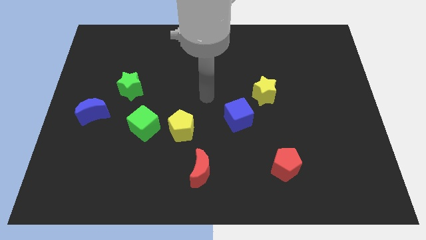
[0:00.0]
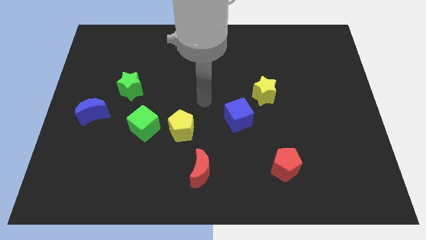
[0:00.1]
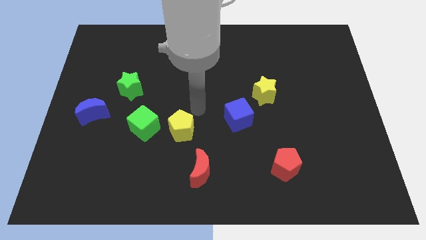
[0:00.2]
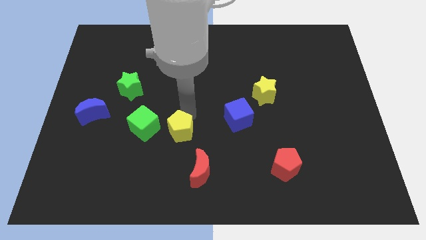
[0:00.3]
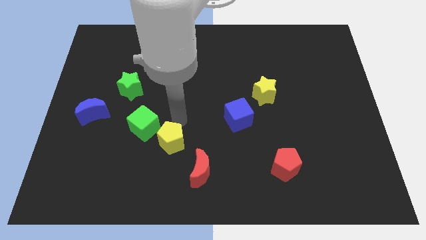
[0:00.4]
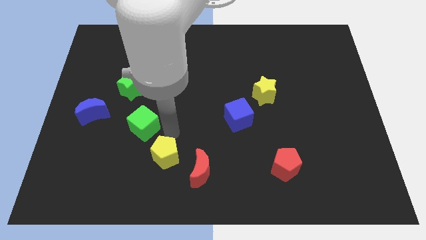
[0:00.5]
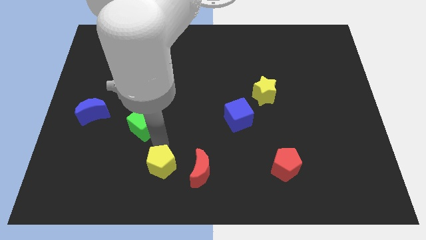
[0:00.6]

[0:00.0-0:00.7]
separate the green cube from the yellow pentagon

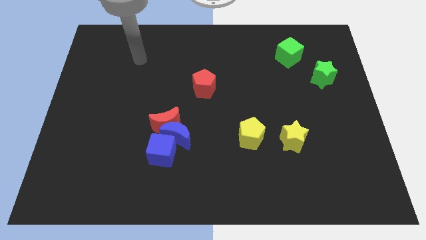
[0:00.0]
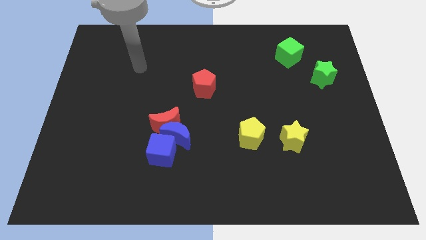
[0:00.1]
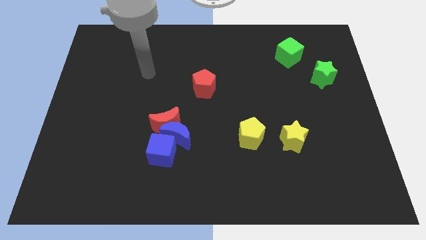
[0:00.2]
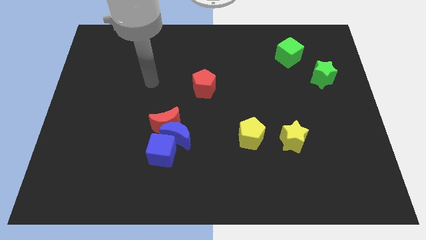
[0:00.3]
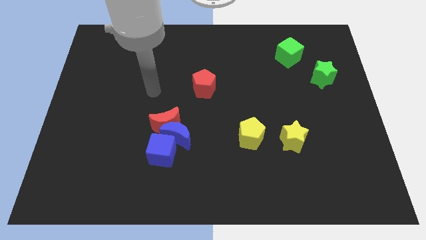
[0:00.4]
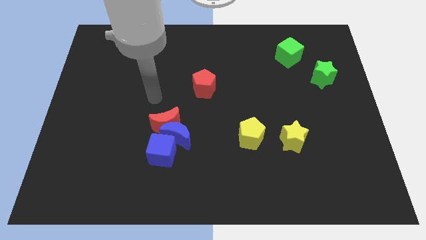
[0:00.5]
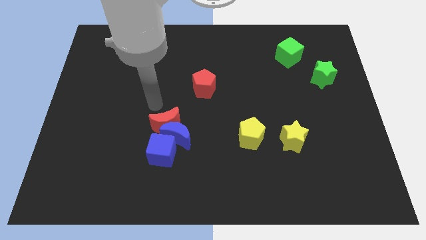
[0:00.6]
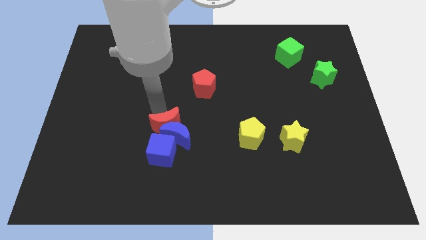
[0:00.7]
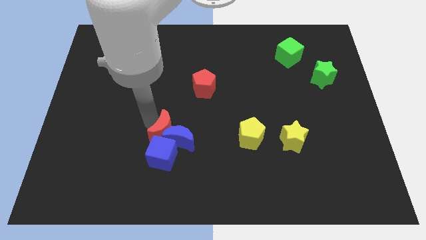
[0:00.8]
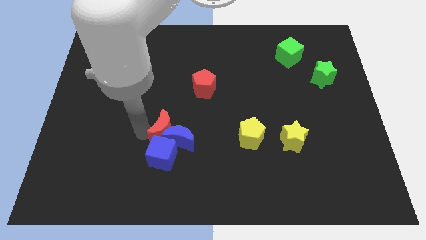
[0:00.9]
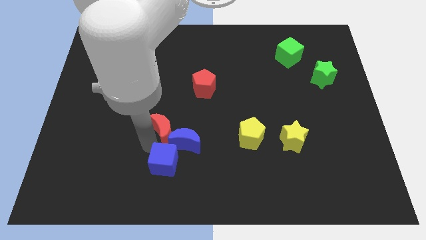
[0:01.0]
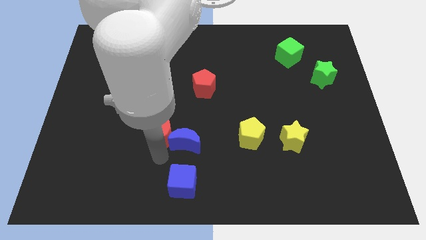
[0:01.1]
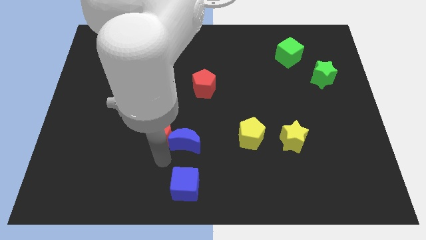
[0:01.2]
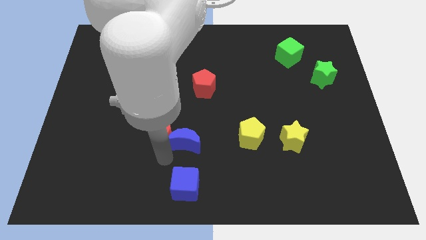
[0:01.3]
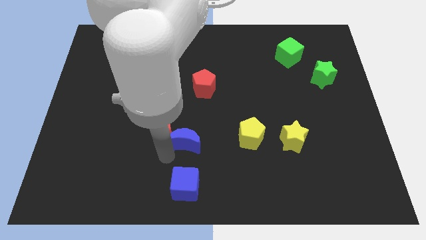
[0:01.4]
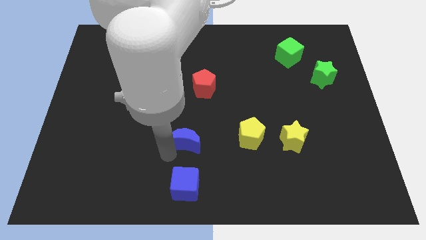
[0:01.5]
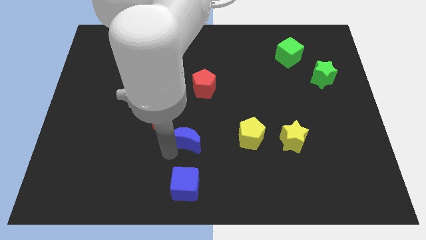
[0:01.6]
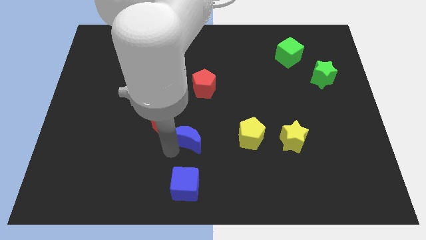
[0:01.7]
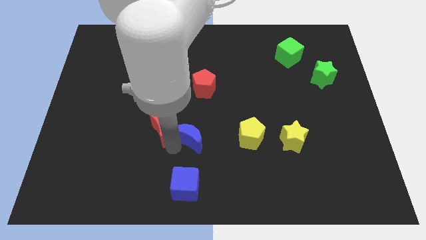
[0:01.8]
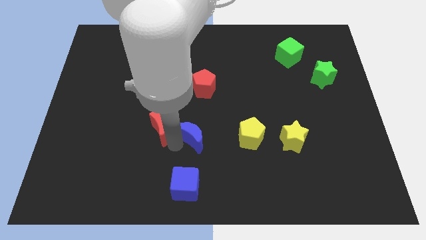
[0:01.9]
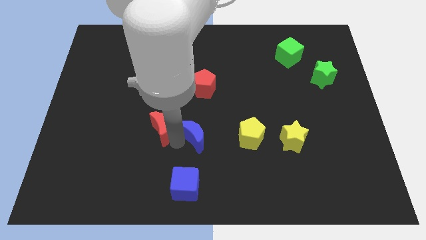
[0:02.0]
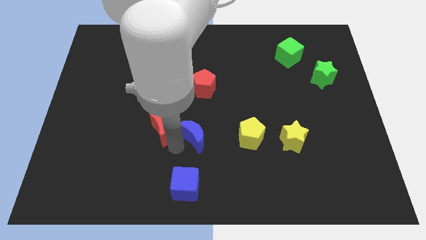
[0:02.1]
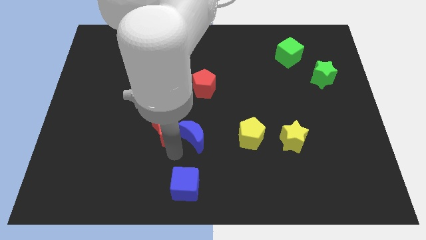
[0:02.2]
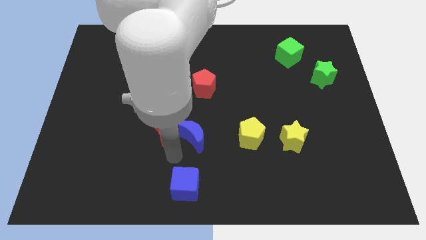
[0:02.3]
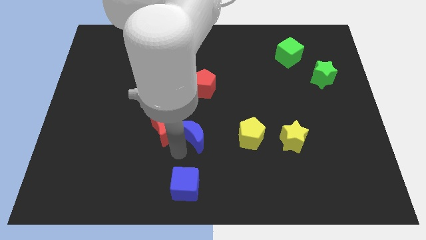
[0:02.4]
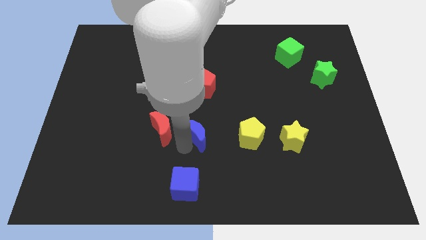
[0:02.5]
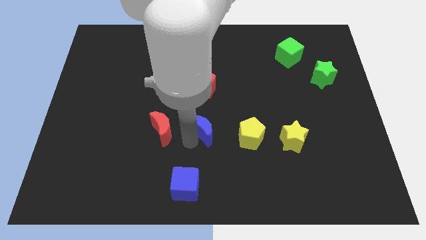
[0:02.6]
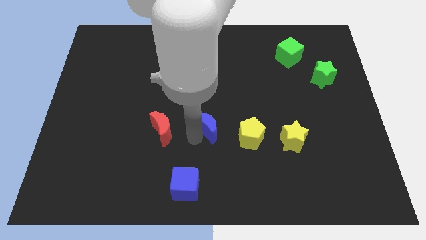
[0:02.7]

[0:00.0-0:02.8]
pull the blue moon apart from the red moon and blue cube

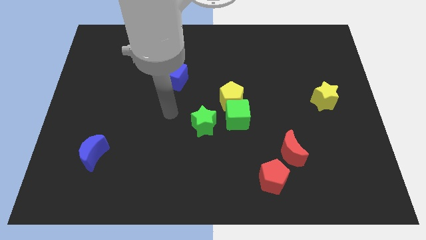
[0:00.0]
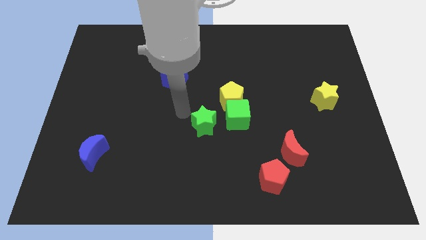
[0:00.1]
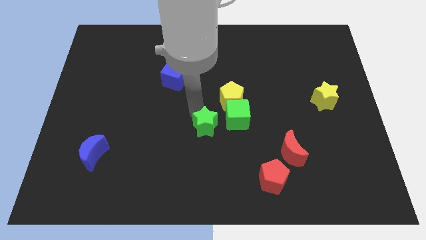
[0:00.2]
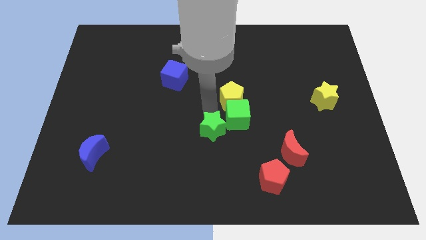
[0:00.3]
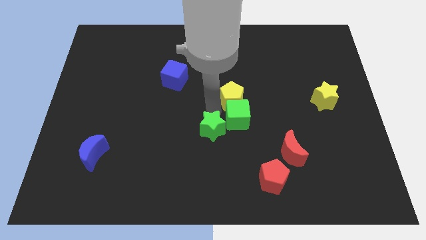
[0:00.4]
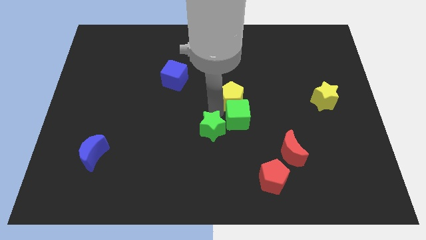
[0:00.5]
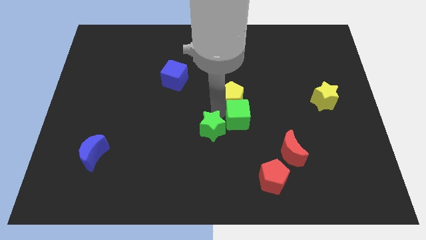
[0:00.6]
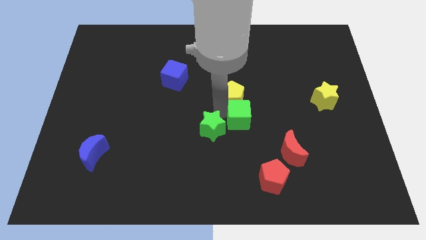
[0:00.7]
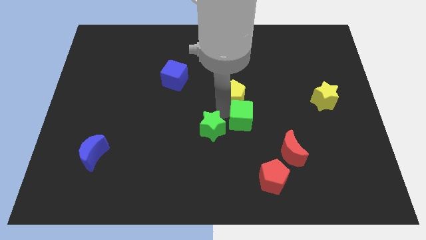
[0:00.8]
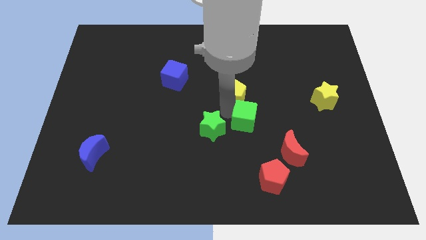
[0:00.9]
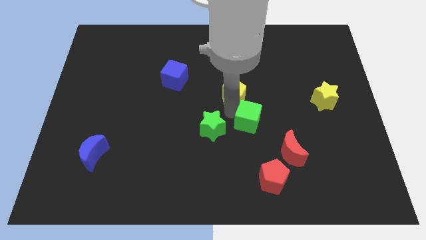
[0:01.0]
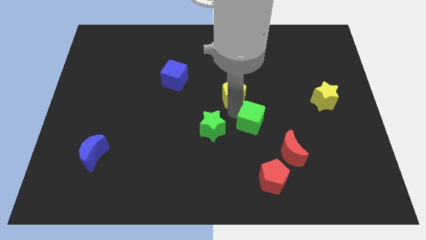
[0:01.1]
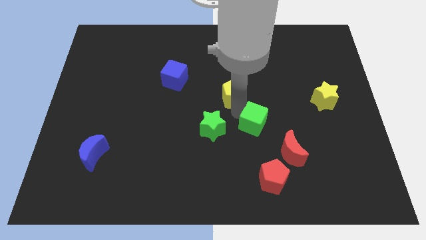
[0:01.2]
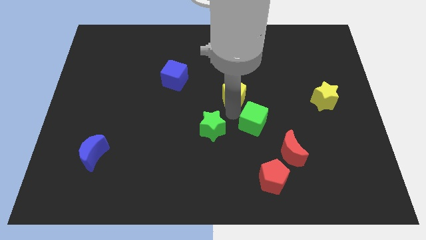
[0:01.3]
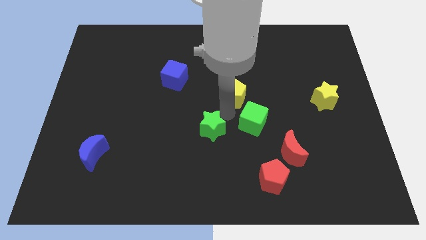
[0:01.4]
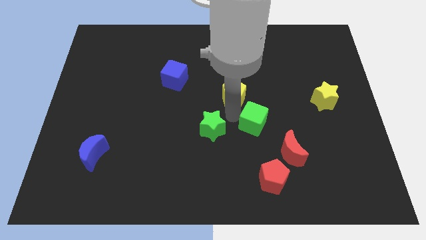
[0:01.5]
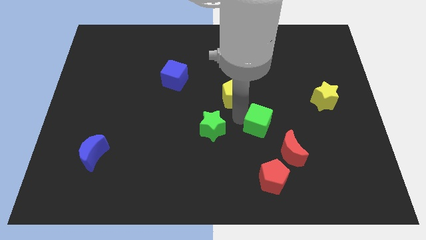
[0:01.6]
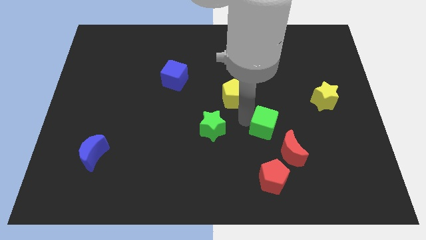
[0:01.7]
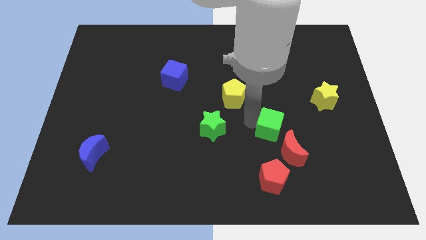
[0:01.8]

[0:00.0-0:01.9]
move the green cube away from the yellow pentagon and green star

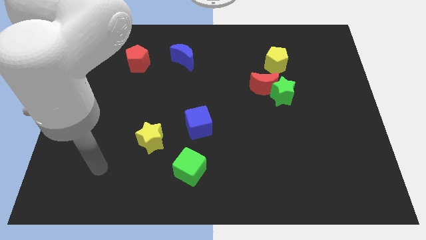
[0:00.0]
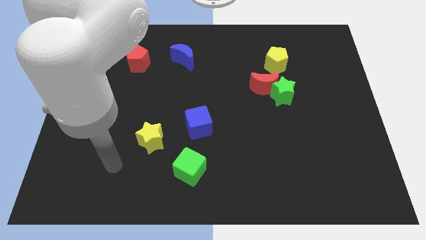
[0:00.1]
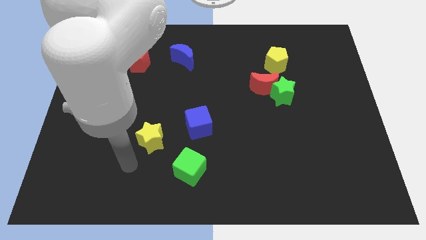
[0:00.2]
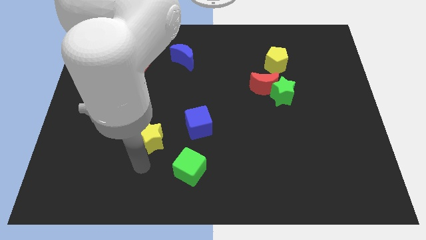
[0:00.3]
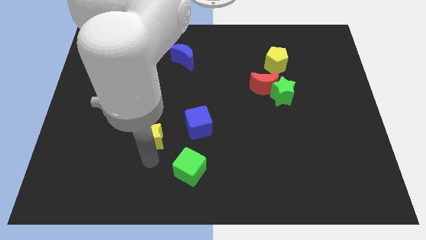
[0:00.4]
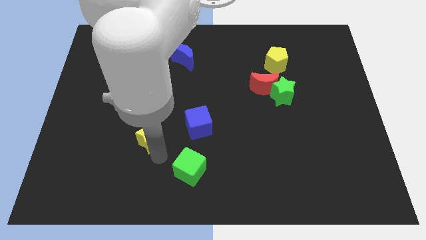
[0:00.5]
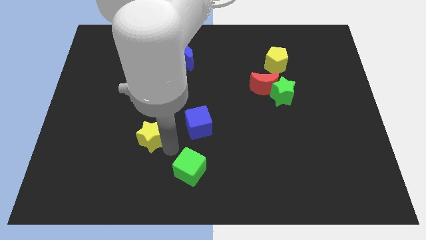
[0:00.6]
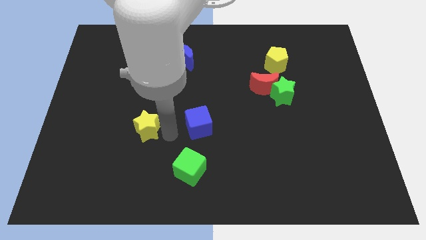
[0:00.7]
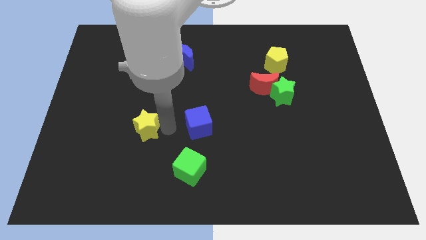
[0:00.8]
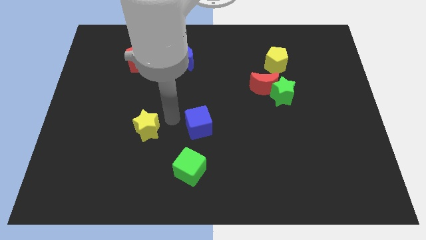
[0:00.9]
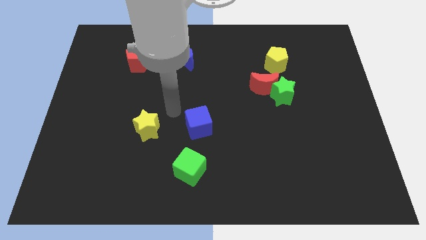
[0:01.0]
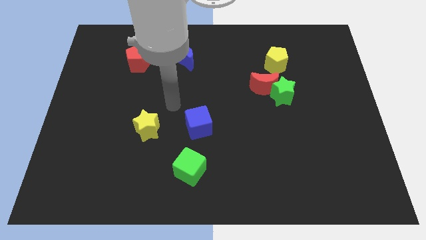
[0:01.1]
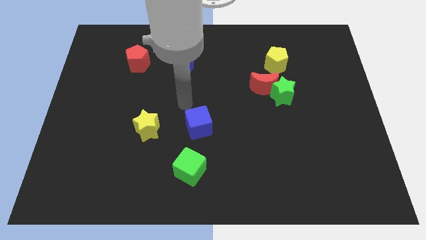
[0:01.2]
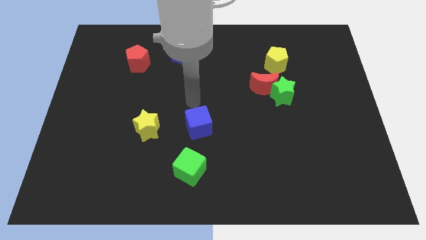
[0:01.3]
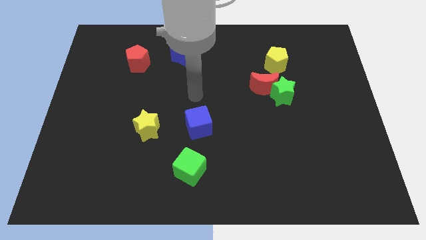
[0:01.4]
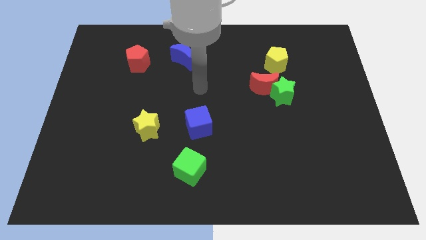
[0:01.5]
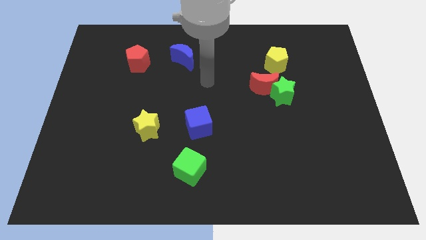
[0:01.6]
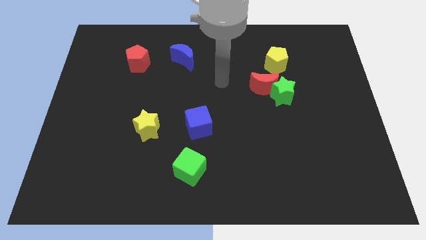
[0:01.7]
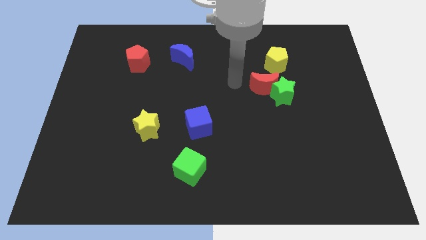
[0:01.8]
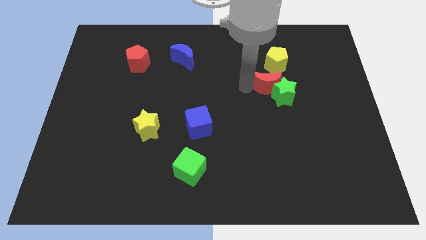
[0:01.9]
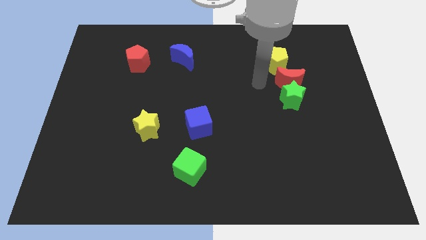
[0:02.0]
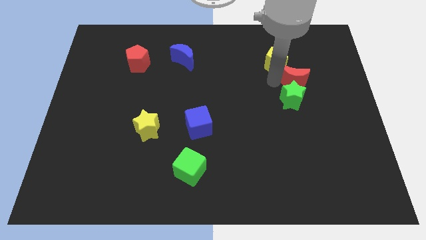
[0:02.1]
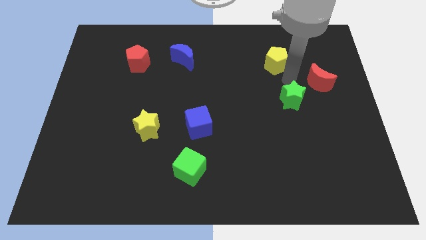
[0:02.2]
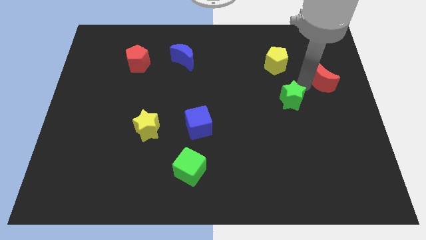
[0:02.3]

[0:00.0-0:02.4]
move the green star away from the red moon

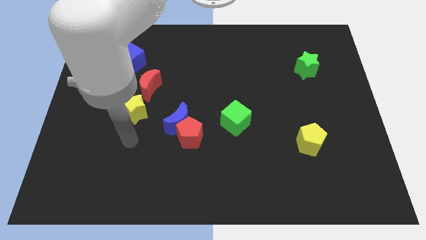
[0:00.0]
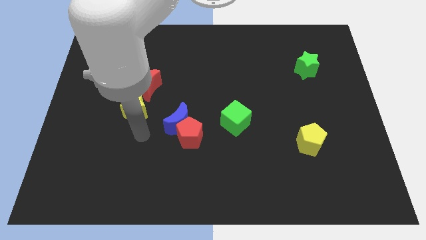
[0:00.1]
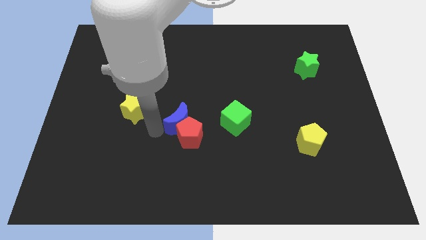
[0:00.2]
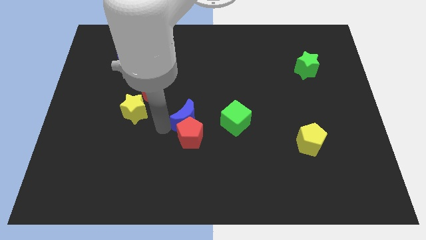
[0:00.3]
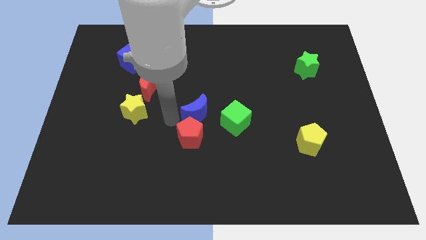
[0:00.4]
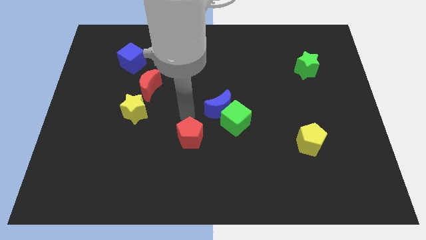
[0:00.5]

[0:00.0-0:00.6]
separate the red pentagon from the blue moon

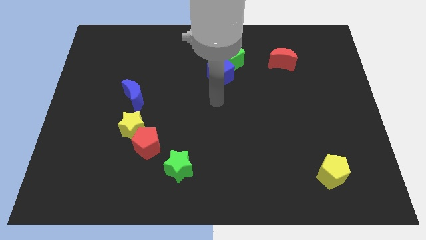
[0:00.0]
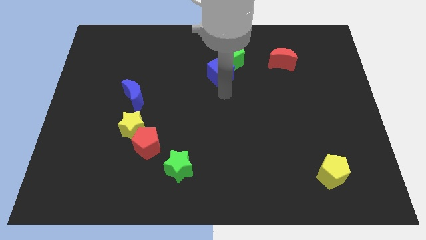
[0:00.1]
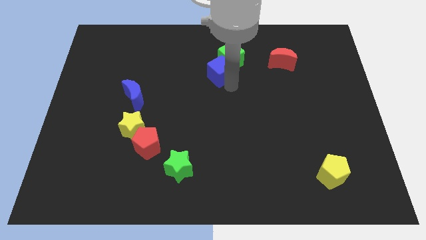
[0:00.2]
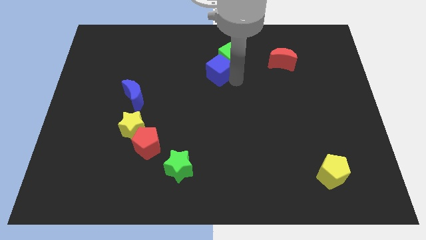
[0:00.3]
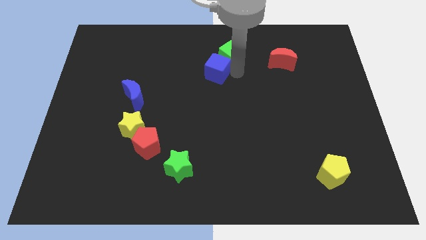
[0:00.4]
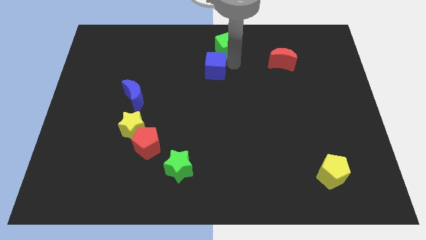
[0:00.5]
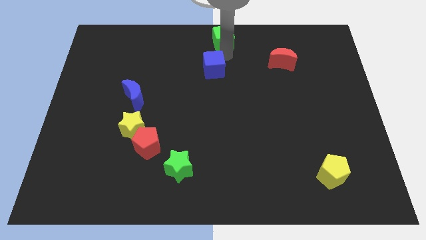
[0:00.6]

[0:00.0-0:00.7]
separate the blue cube from the green cube

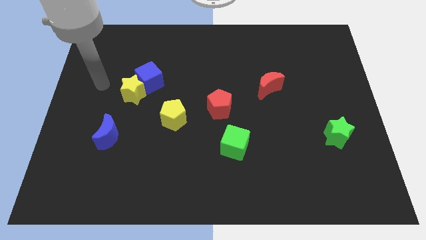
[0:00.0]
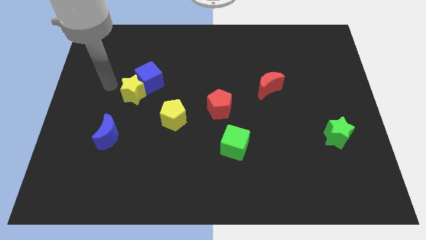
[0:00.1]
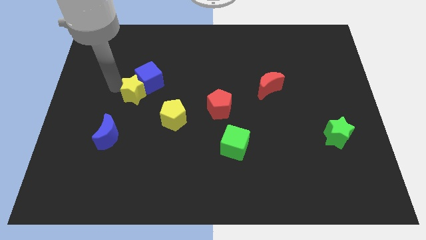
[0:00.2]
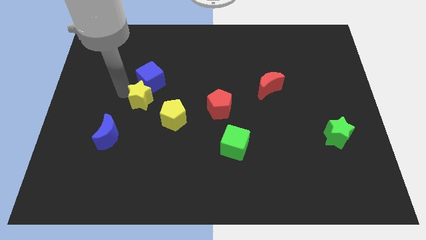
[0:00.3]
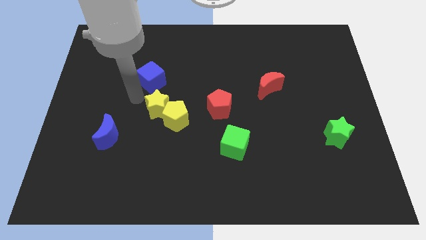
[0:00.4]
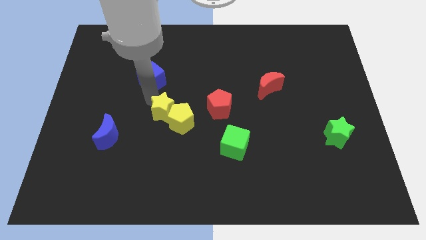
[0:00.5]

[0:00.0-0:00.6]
separate the blue cube from the yellow star
